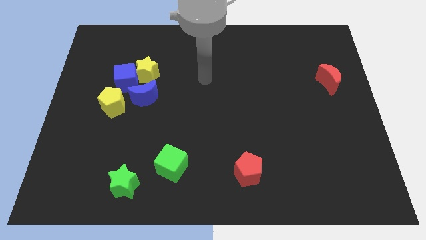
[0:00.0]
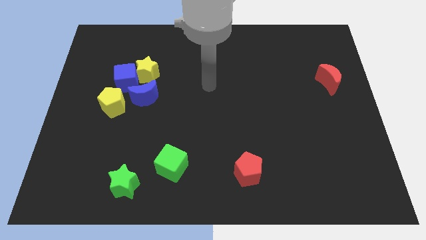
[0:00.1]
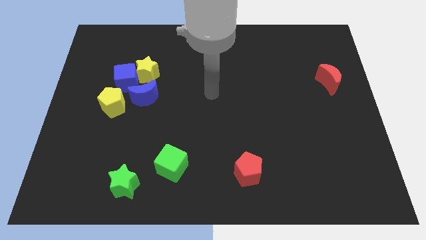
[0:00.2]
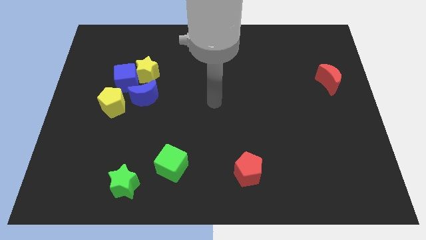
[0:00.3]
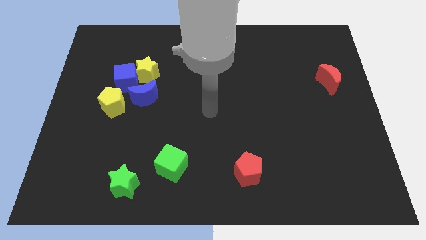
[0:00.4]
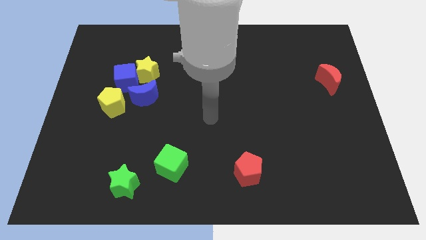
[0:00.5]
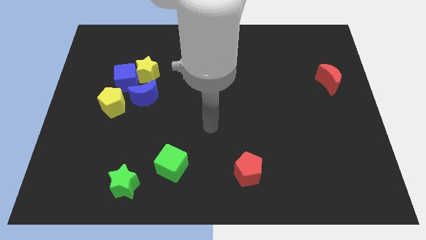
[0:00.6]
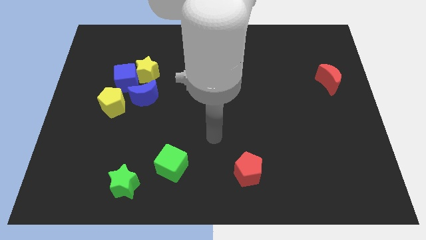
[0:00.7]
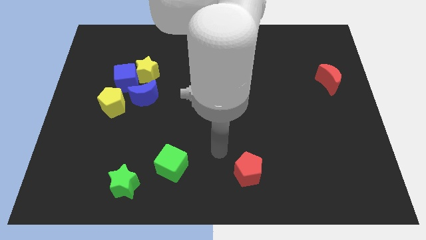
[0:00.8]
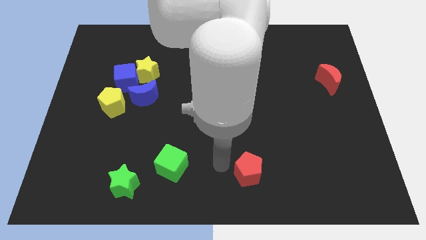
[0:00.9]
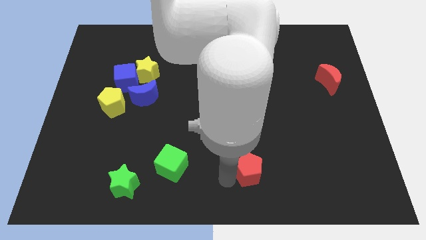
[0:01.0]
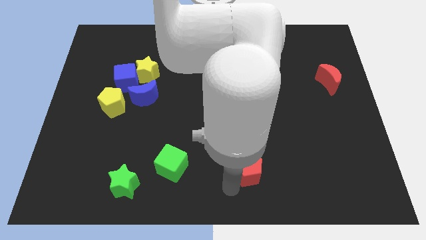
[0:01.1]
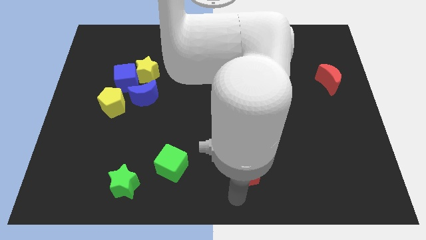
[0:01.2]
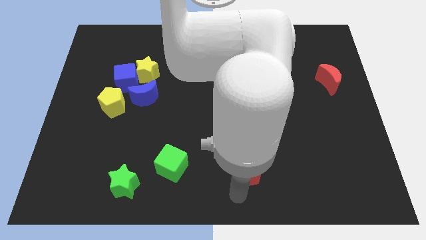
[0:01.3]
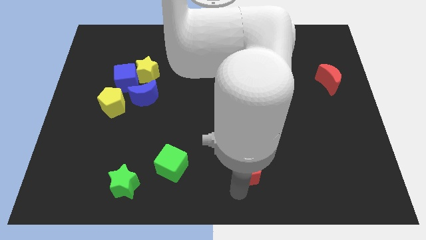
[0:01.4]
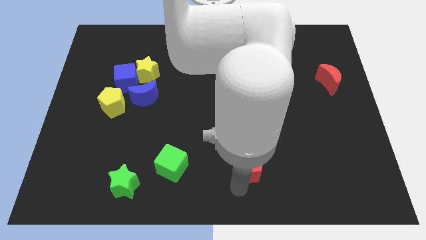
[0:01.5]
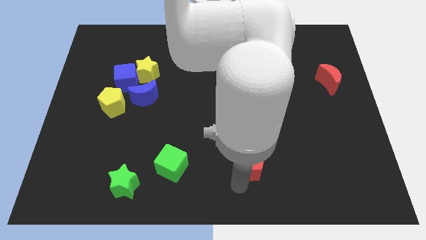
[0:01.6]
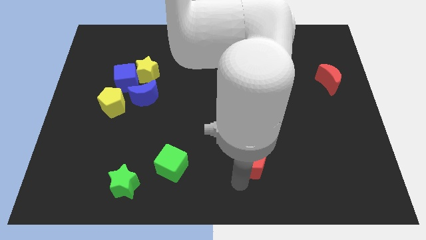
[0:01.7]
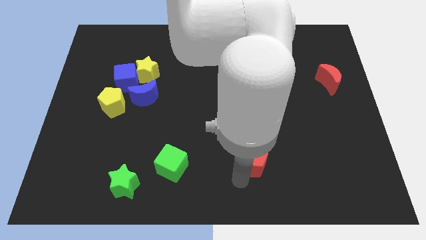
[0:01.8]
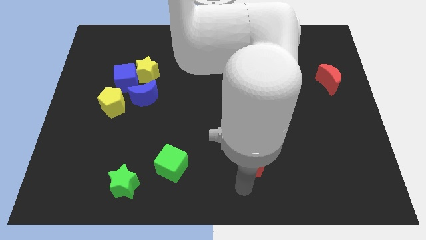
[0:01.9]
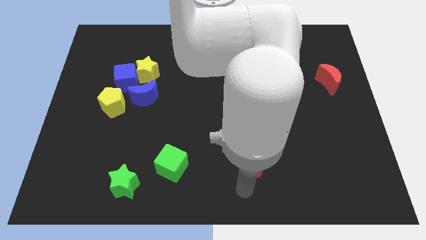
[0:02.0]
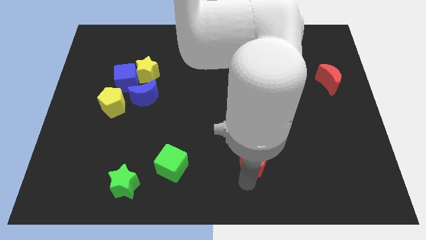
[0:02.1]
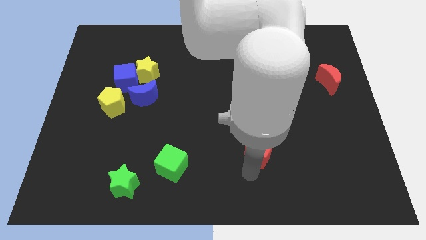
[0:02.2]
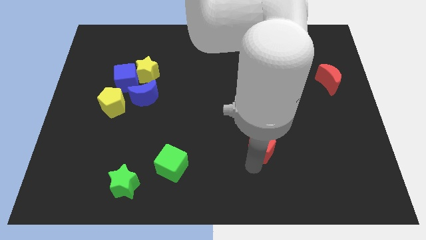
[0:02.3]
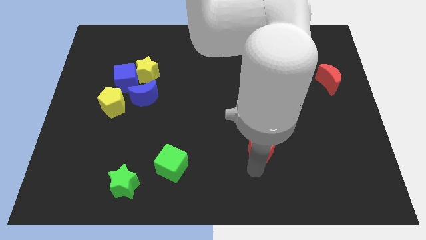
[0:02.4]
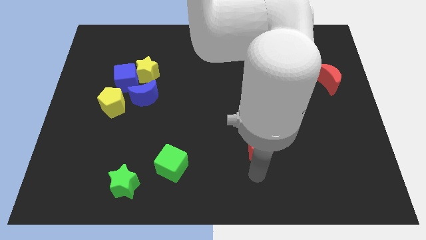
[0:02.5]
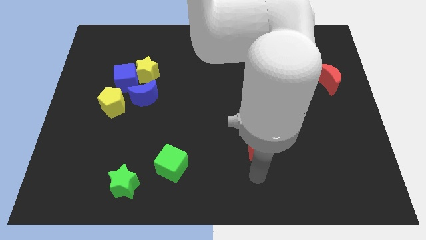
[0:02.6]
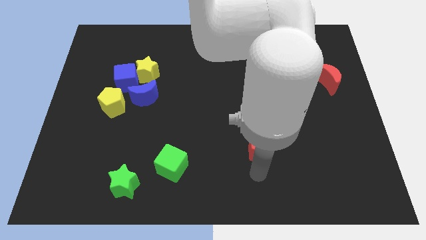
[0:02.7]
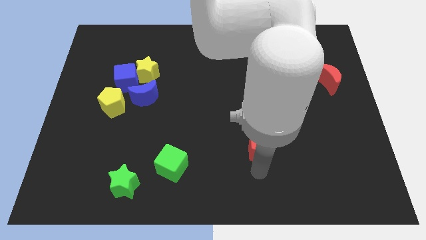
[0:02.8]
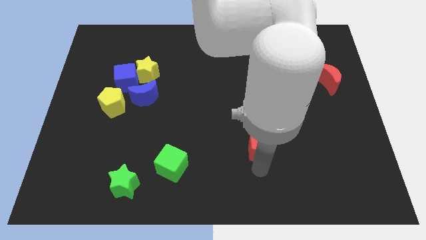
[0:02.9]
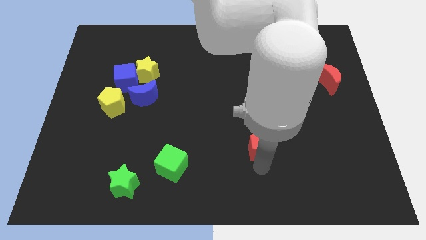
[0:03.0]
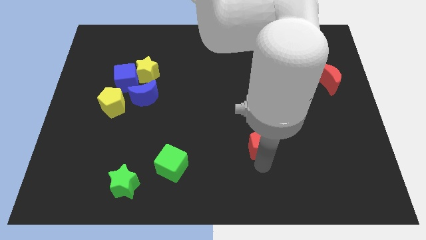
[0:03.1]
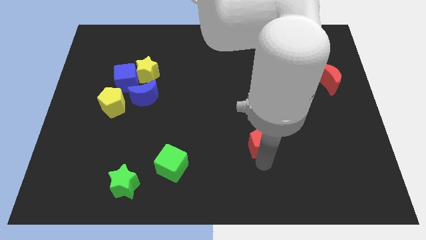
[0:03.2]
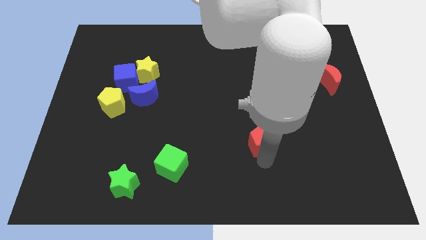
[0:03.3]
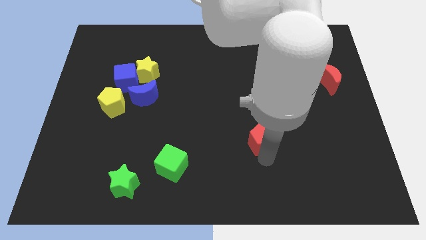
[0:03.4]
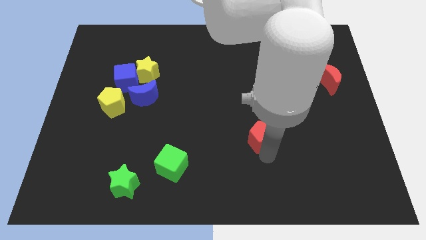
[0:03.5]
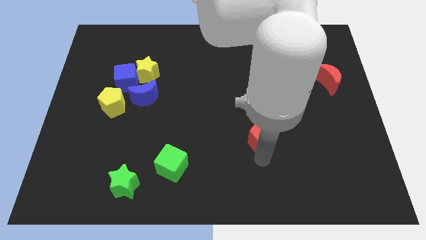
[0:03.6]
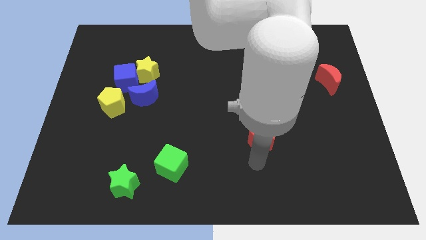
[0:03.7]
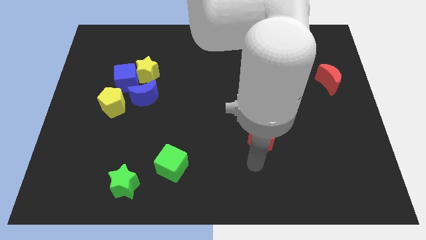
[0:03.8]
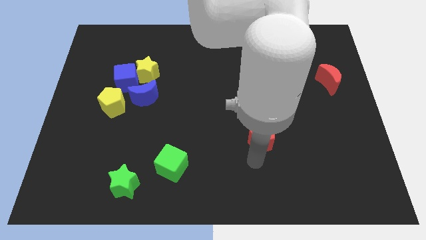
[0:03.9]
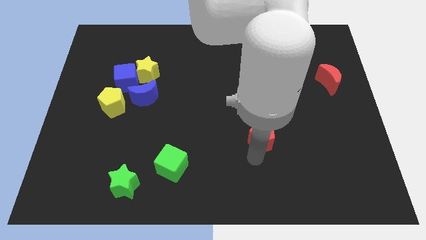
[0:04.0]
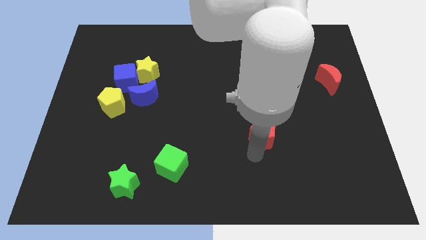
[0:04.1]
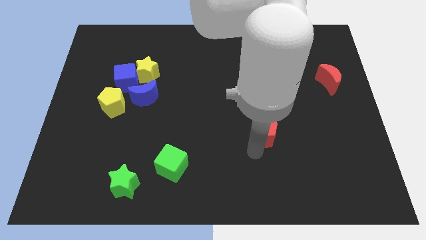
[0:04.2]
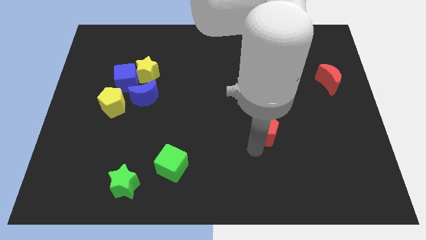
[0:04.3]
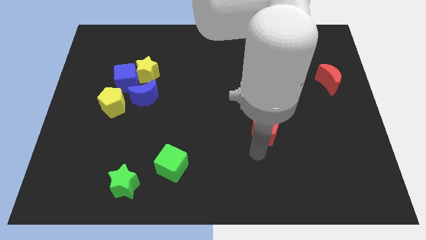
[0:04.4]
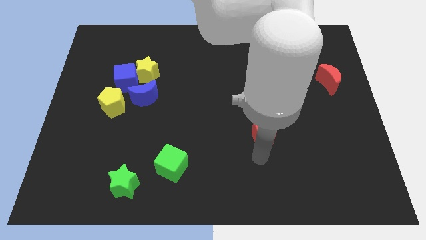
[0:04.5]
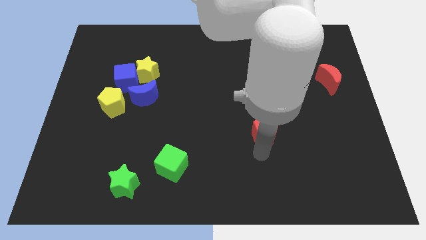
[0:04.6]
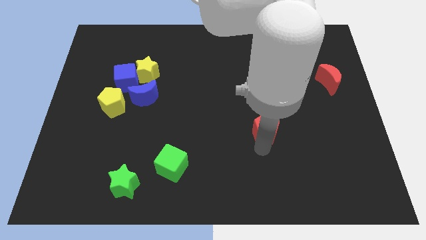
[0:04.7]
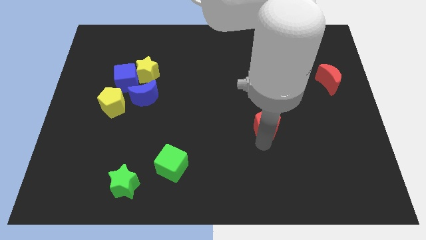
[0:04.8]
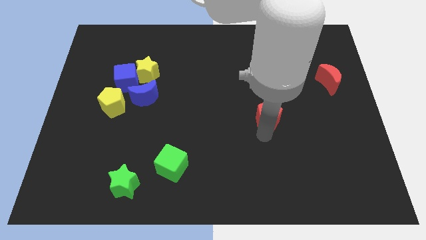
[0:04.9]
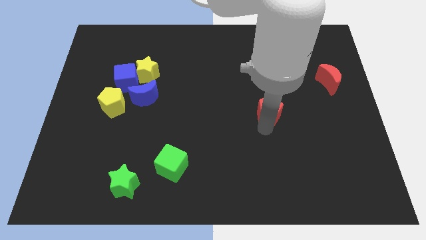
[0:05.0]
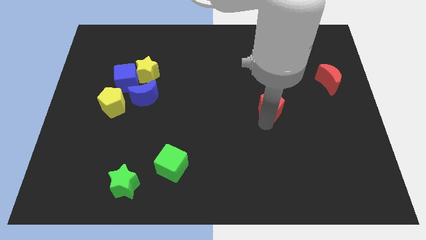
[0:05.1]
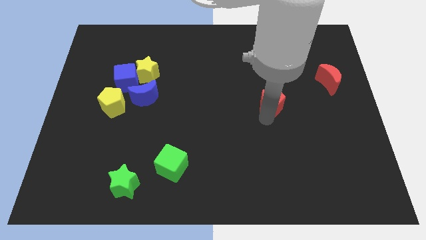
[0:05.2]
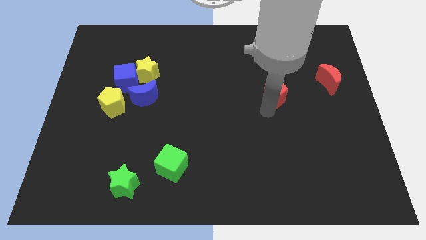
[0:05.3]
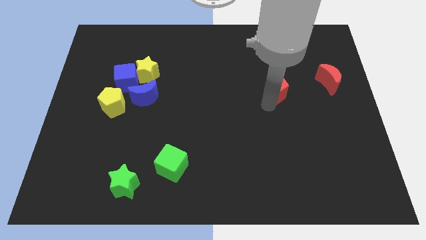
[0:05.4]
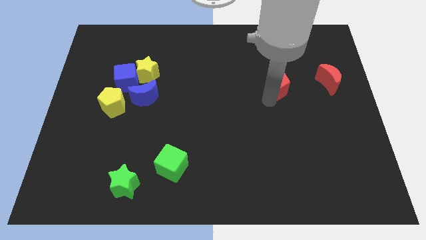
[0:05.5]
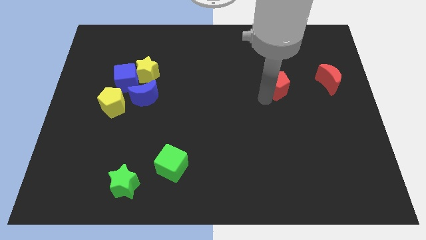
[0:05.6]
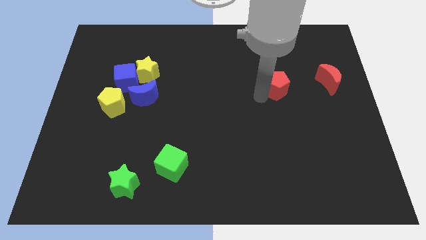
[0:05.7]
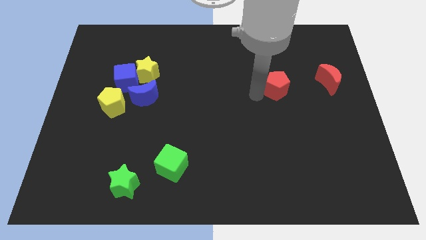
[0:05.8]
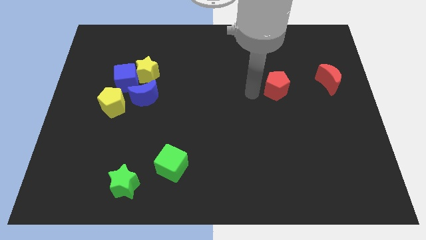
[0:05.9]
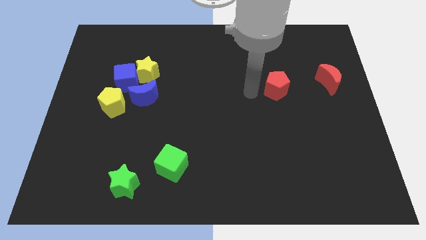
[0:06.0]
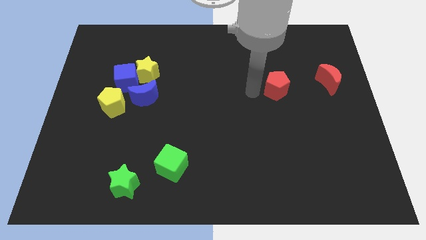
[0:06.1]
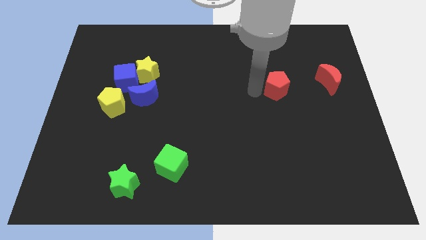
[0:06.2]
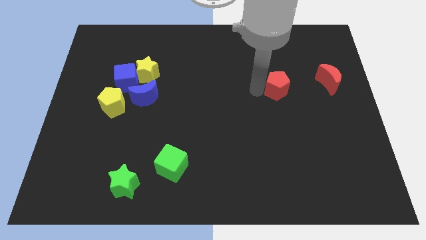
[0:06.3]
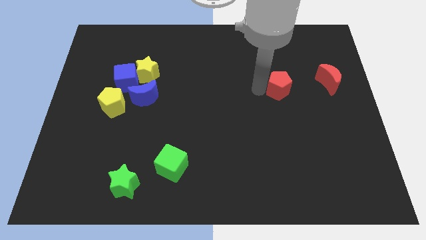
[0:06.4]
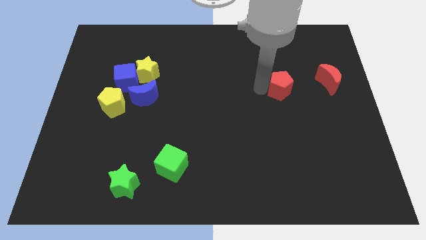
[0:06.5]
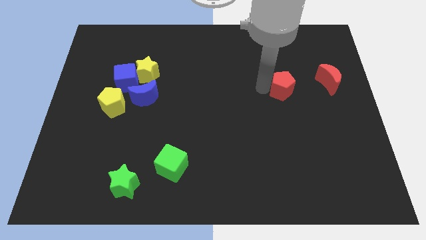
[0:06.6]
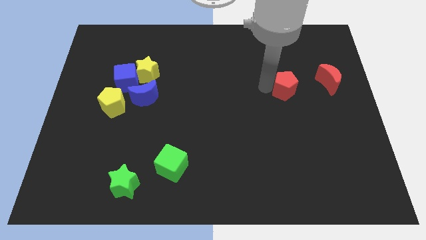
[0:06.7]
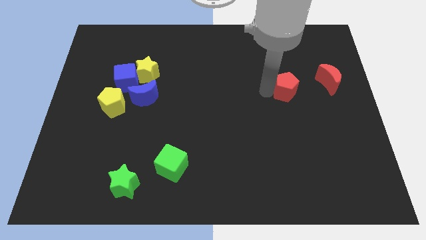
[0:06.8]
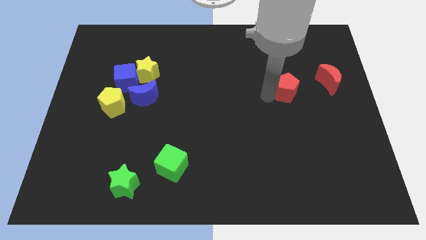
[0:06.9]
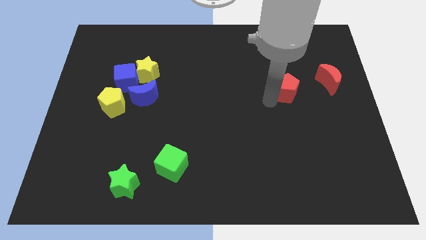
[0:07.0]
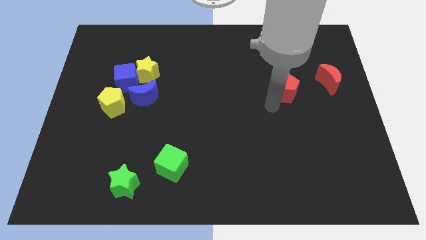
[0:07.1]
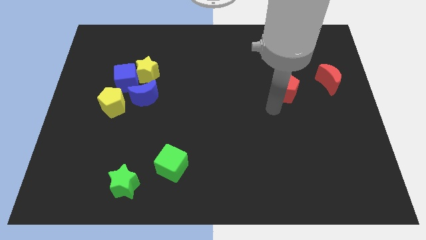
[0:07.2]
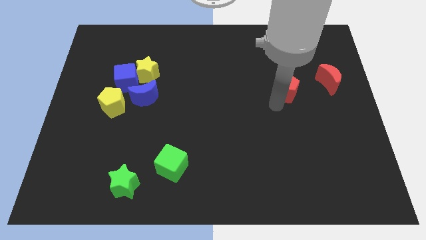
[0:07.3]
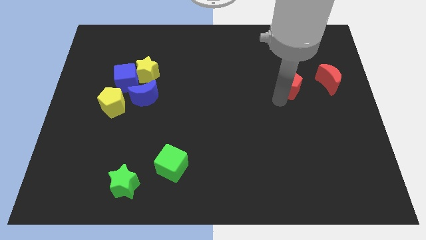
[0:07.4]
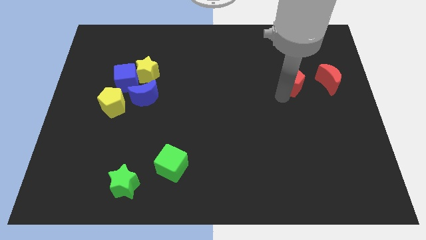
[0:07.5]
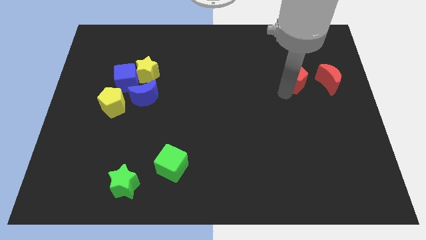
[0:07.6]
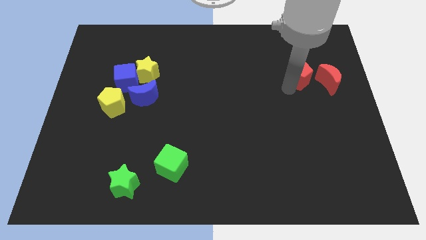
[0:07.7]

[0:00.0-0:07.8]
slide the red pentagon diagonally up and to the left of the red moon
